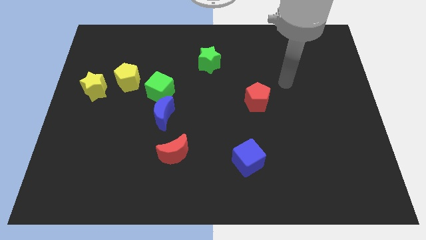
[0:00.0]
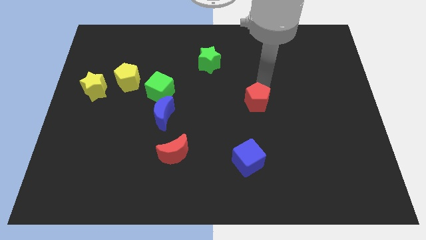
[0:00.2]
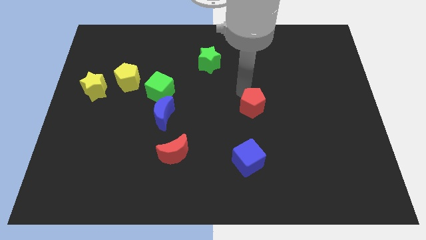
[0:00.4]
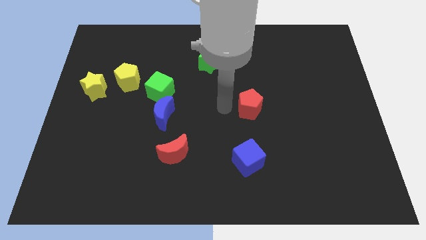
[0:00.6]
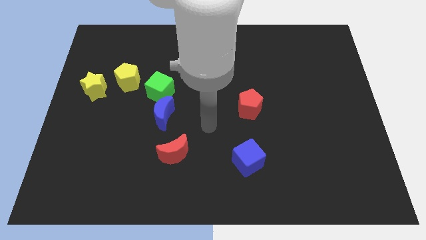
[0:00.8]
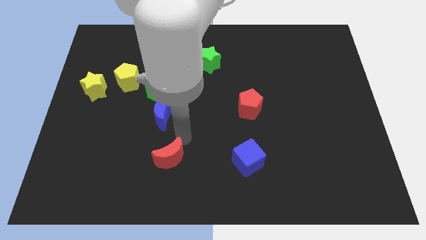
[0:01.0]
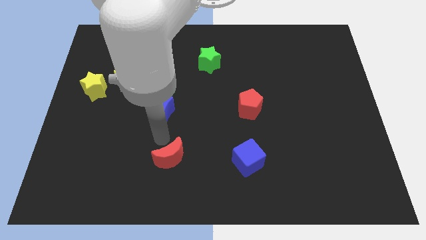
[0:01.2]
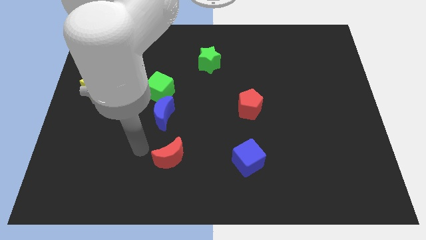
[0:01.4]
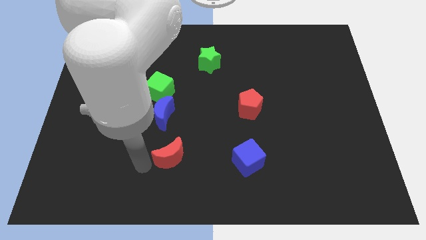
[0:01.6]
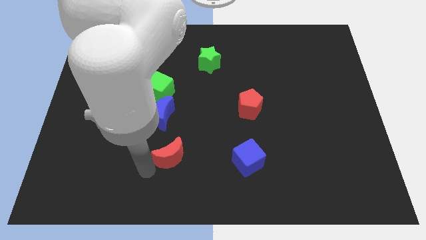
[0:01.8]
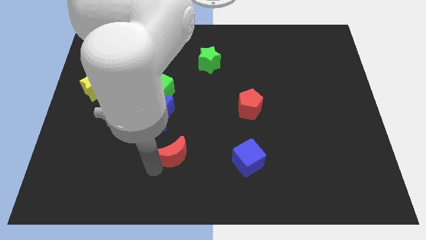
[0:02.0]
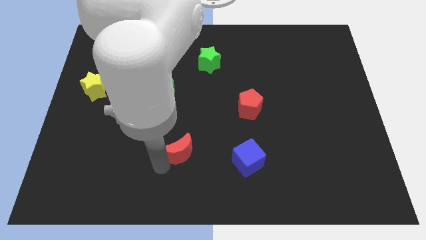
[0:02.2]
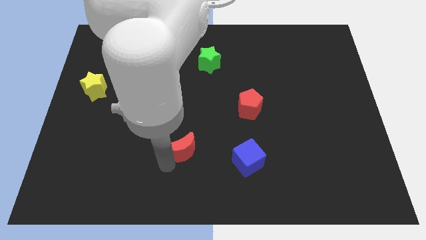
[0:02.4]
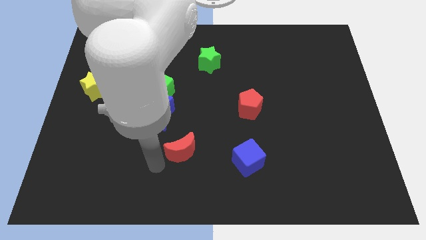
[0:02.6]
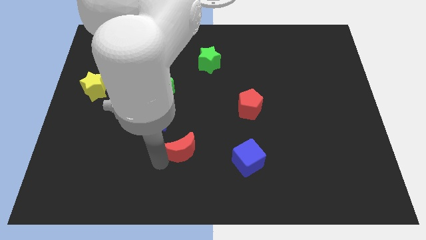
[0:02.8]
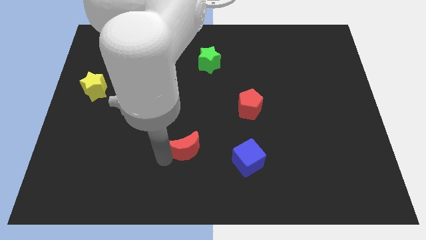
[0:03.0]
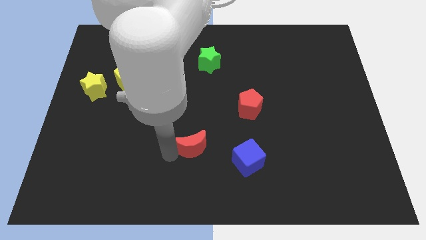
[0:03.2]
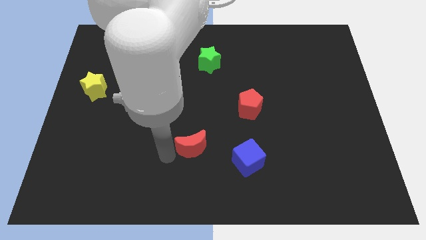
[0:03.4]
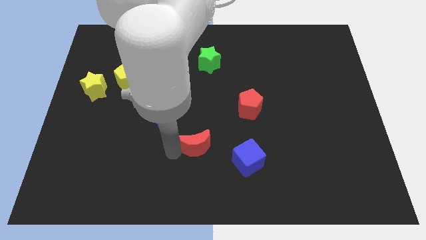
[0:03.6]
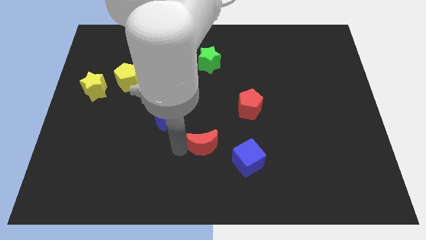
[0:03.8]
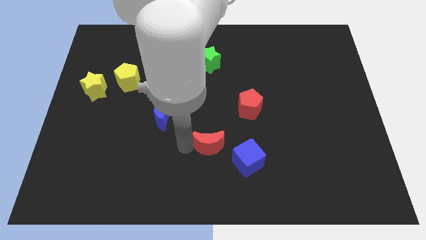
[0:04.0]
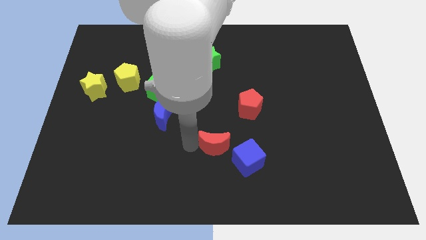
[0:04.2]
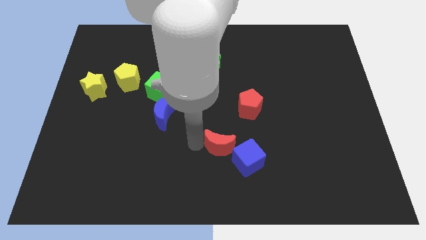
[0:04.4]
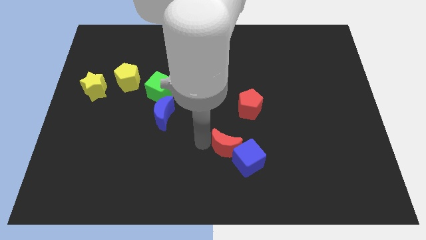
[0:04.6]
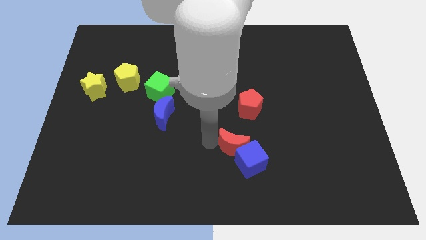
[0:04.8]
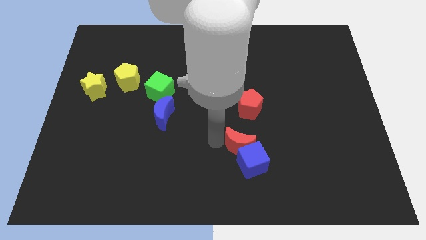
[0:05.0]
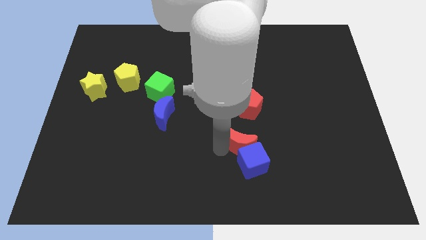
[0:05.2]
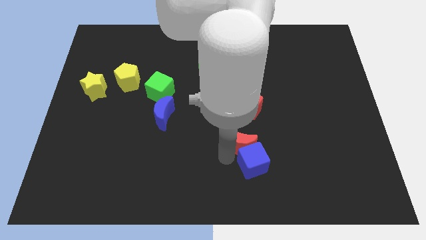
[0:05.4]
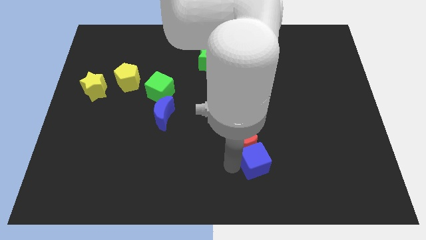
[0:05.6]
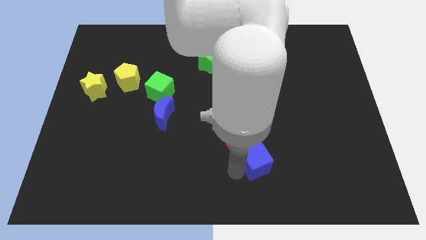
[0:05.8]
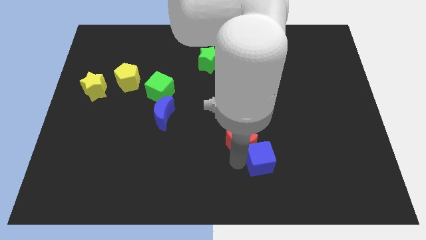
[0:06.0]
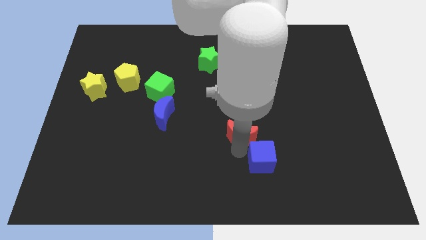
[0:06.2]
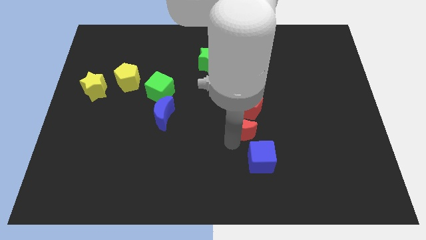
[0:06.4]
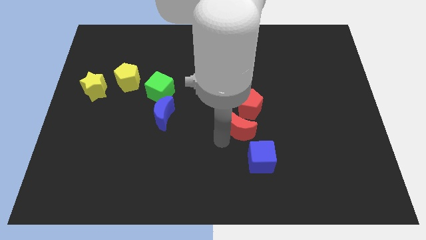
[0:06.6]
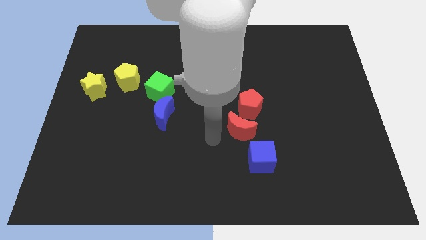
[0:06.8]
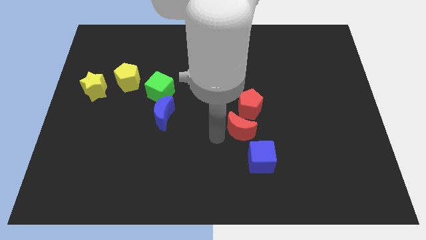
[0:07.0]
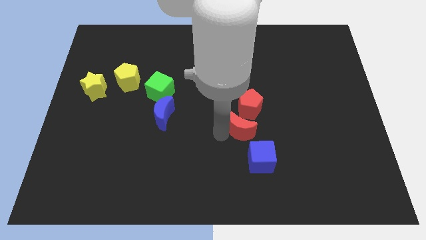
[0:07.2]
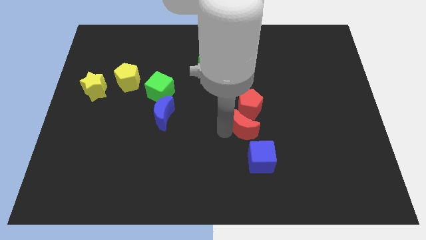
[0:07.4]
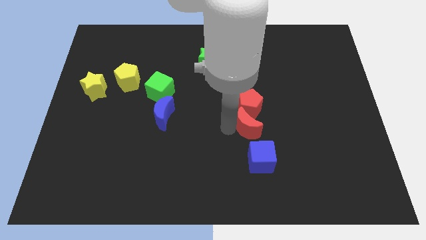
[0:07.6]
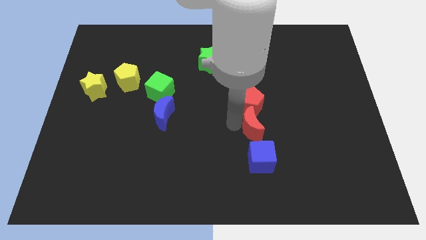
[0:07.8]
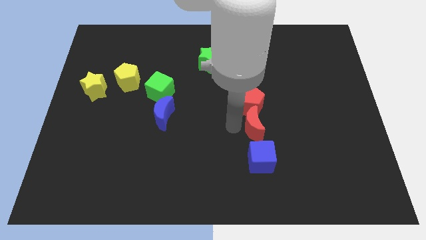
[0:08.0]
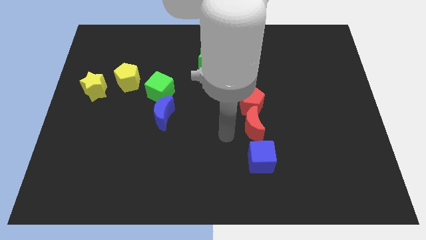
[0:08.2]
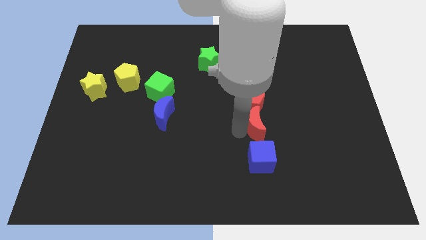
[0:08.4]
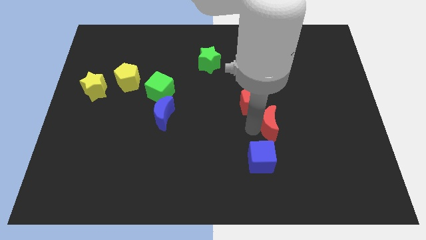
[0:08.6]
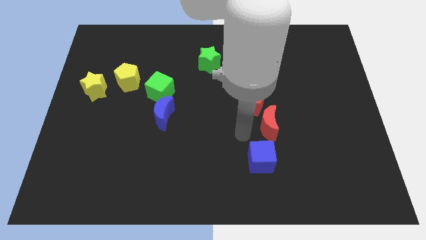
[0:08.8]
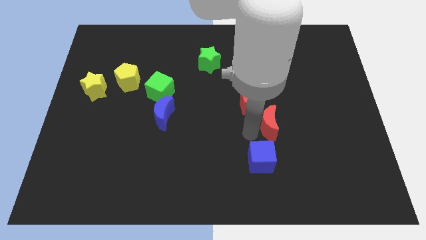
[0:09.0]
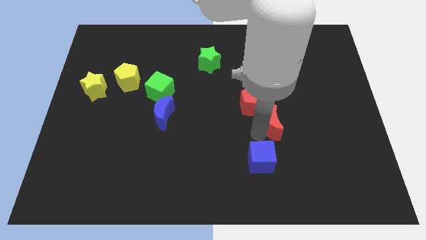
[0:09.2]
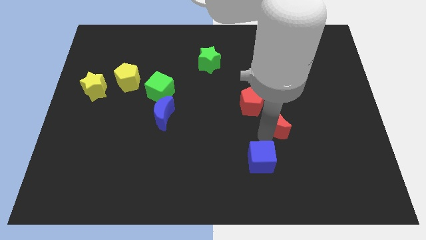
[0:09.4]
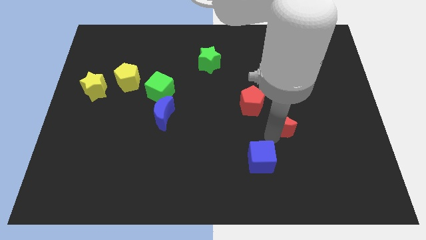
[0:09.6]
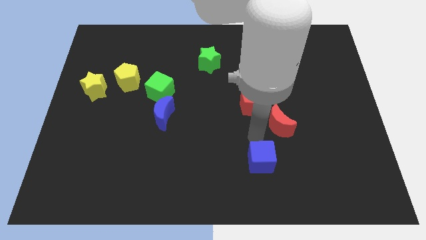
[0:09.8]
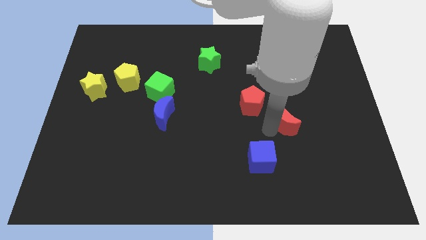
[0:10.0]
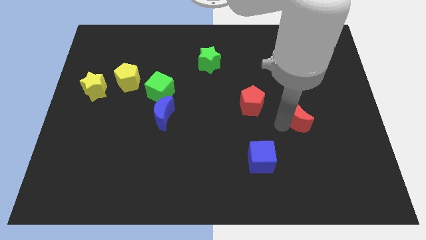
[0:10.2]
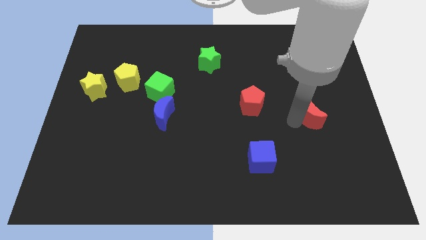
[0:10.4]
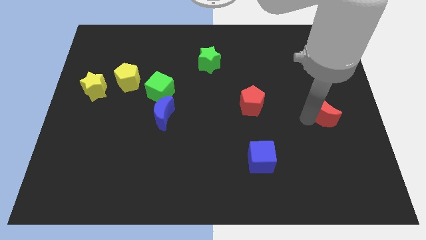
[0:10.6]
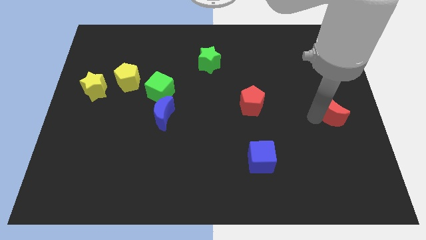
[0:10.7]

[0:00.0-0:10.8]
push the red moon to the center right

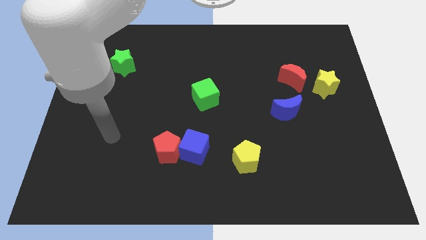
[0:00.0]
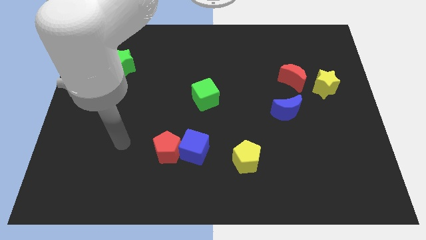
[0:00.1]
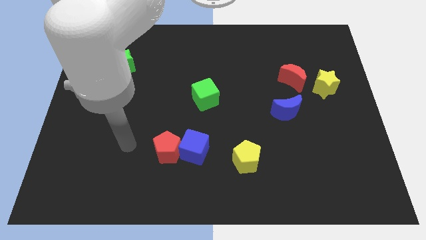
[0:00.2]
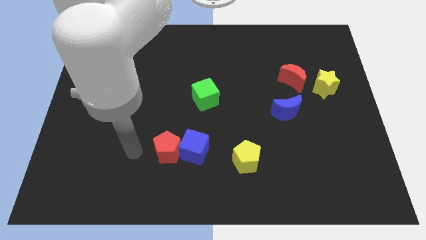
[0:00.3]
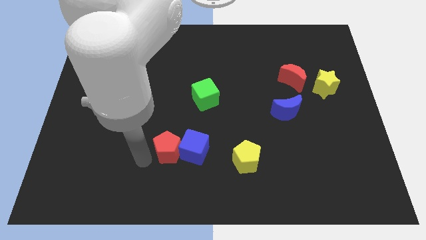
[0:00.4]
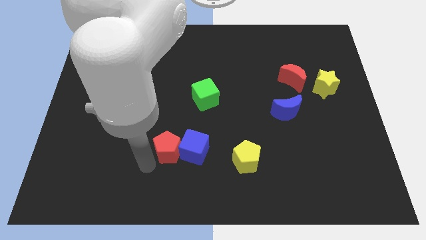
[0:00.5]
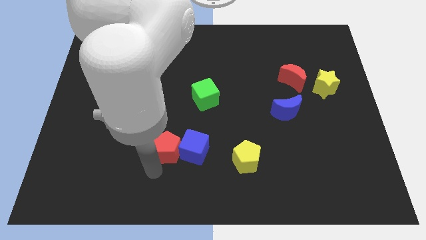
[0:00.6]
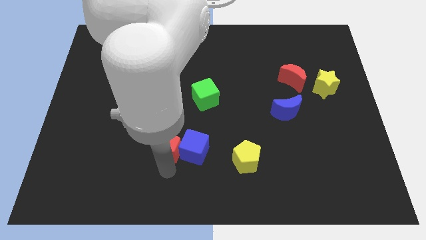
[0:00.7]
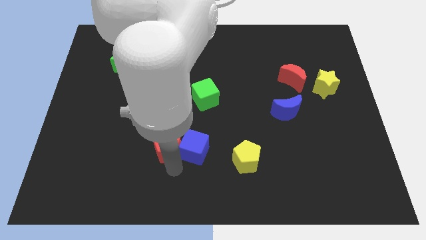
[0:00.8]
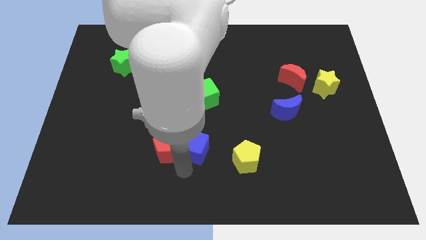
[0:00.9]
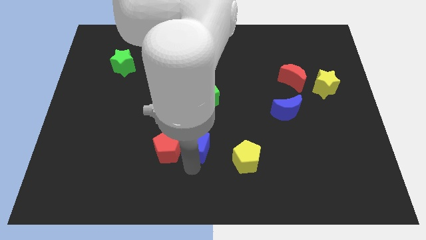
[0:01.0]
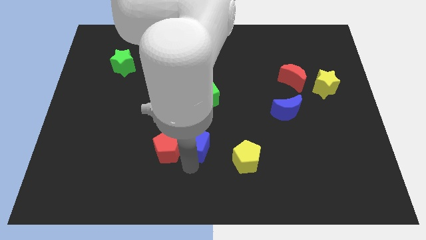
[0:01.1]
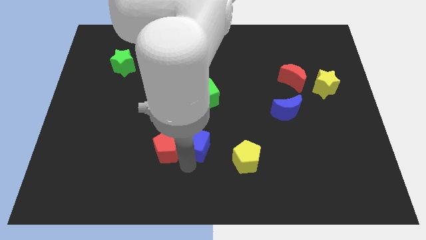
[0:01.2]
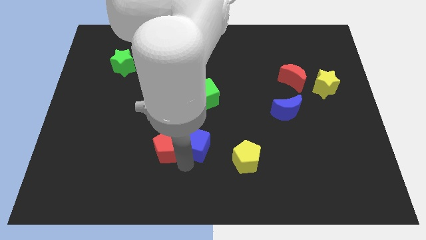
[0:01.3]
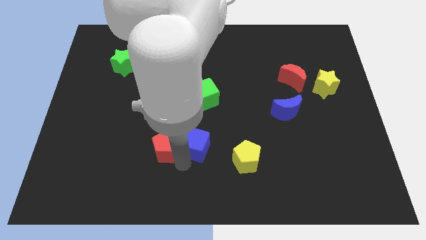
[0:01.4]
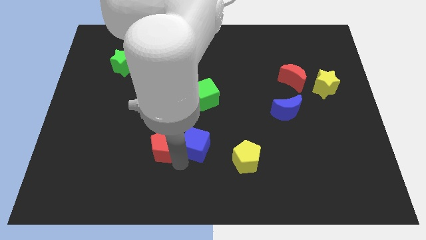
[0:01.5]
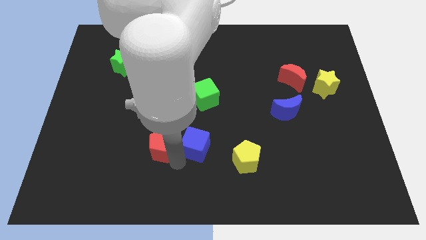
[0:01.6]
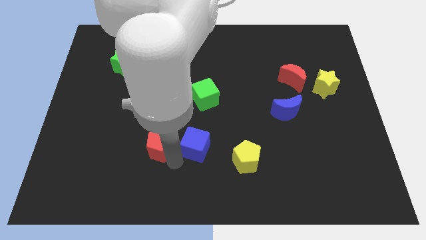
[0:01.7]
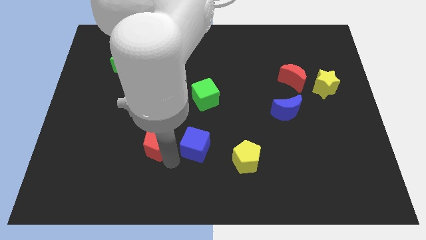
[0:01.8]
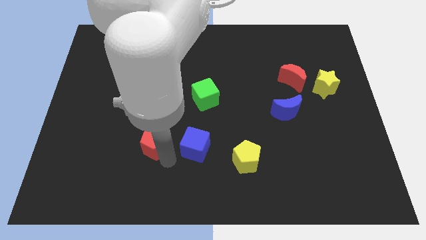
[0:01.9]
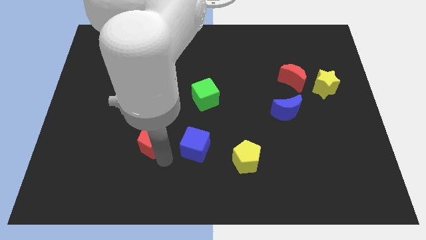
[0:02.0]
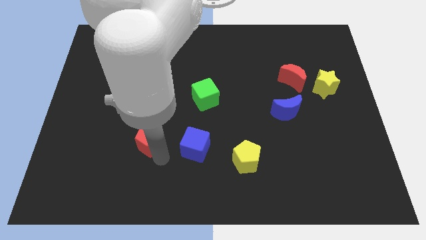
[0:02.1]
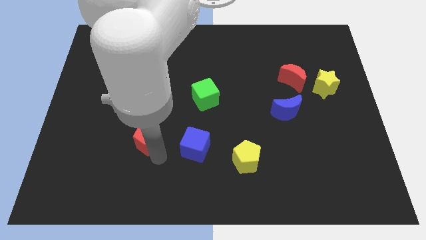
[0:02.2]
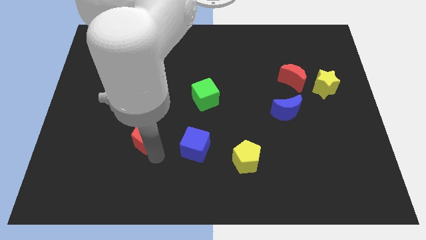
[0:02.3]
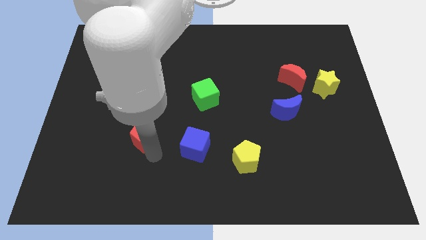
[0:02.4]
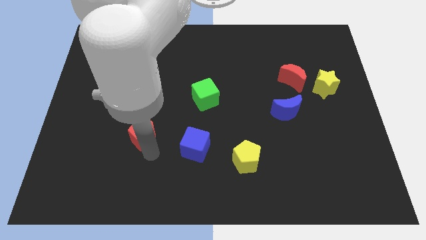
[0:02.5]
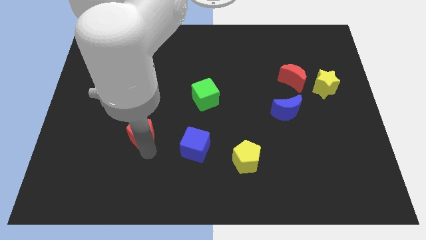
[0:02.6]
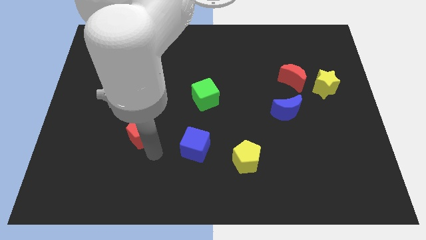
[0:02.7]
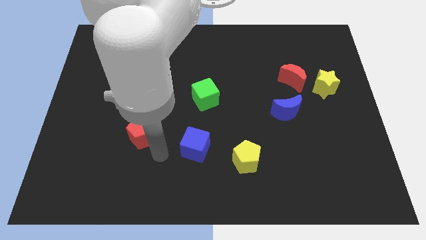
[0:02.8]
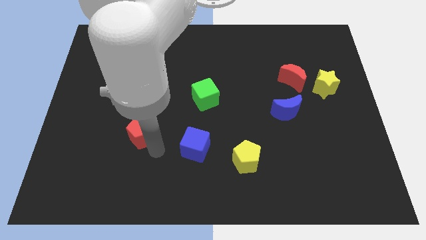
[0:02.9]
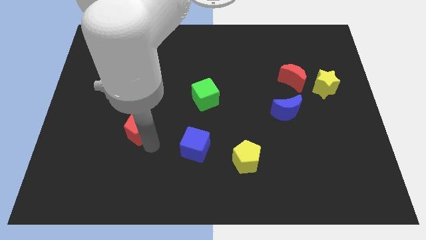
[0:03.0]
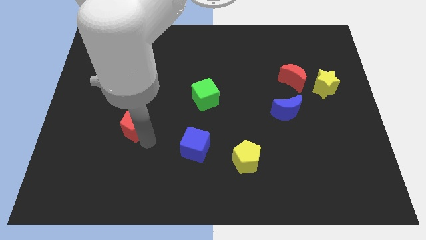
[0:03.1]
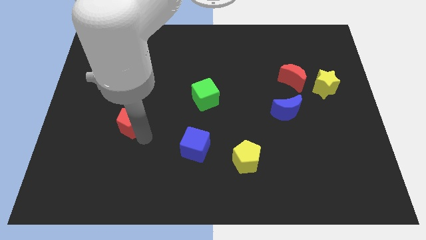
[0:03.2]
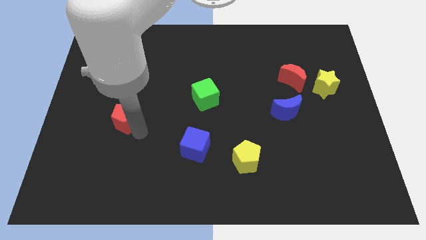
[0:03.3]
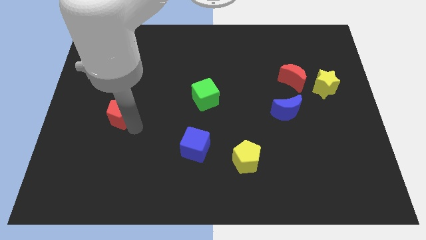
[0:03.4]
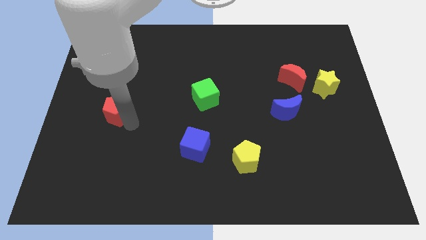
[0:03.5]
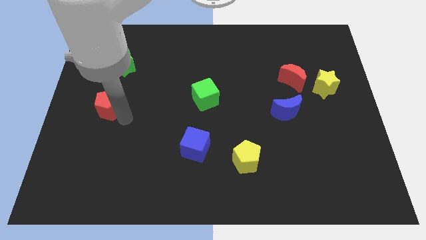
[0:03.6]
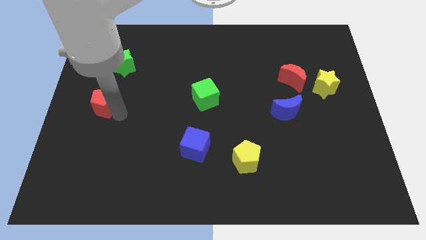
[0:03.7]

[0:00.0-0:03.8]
slide the red pentagon to the left side of the board
